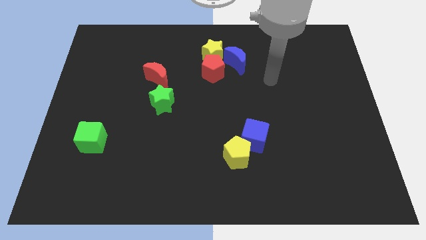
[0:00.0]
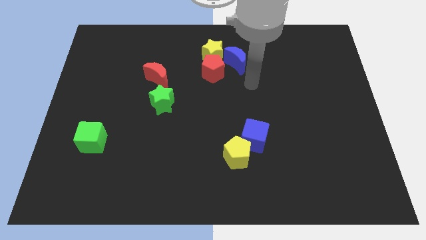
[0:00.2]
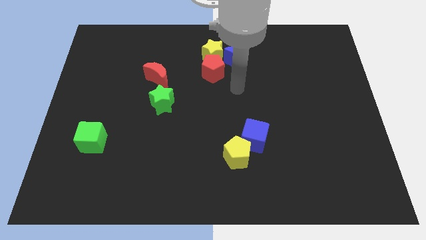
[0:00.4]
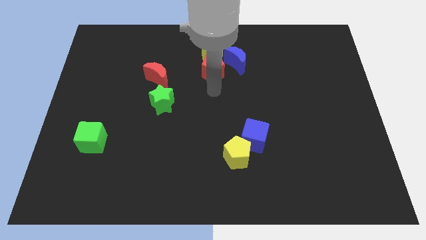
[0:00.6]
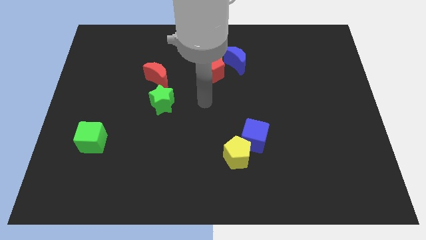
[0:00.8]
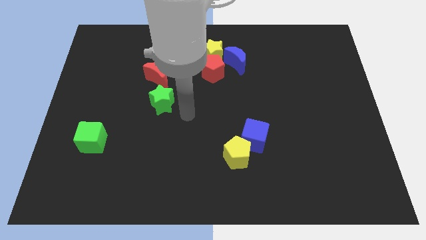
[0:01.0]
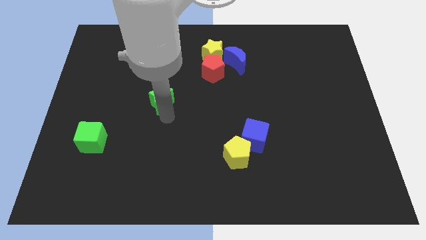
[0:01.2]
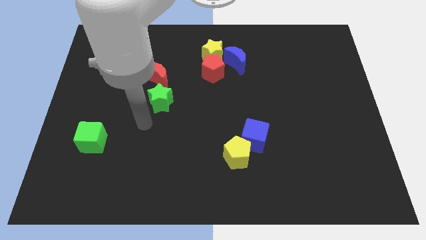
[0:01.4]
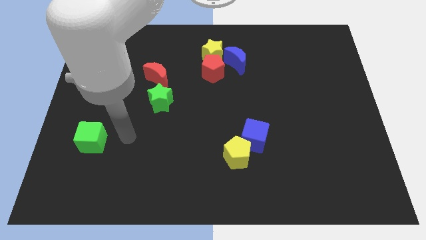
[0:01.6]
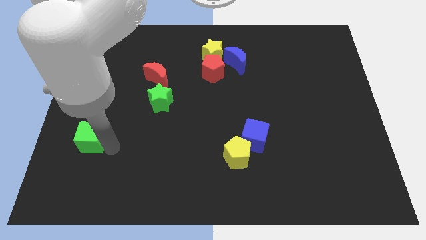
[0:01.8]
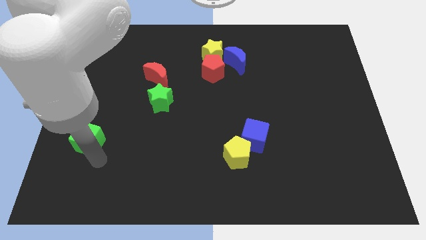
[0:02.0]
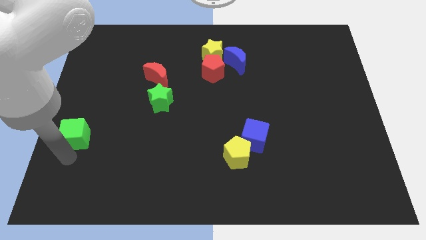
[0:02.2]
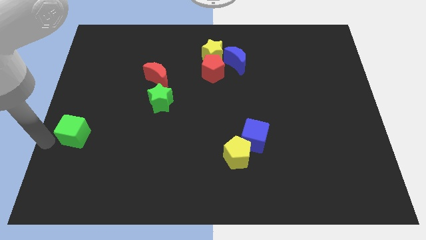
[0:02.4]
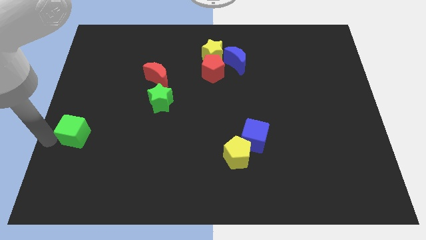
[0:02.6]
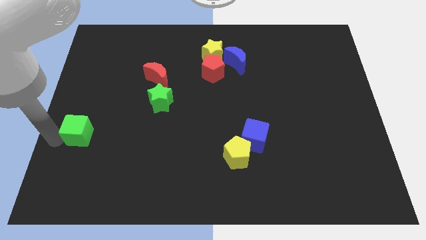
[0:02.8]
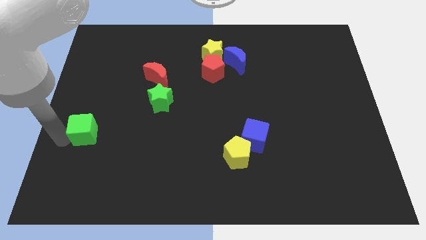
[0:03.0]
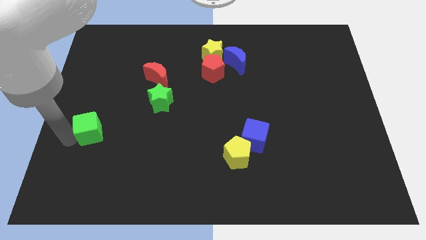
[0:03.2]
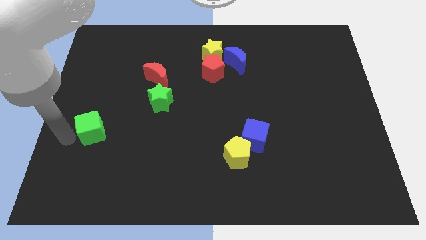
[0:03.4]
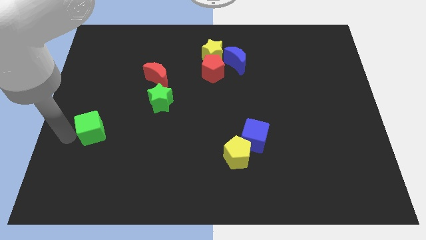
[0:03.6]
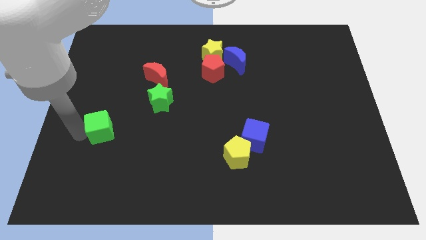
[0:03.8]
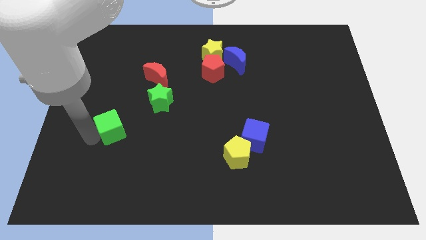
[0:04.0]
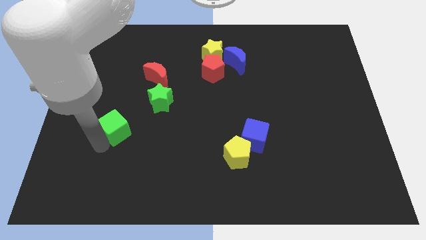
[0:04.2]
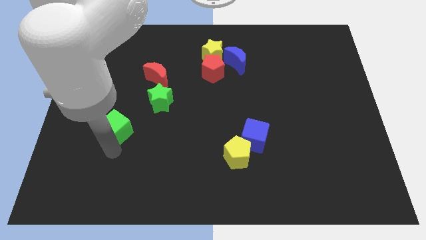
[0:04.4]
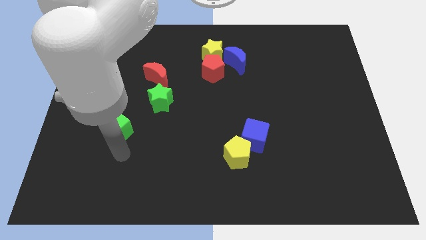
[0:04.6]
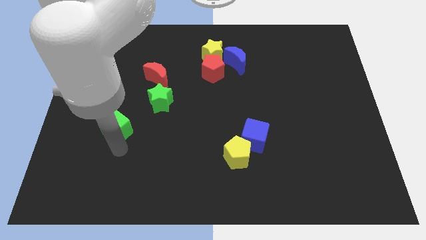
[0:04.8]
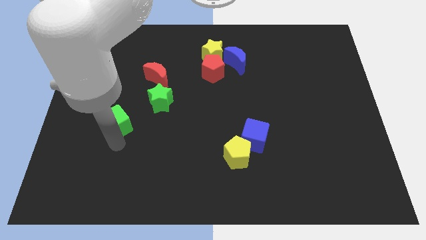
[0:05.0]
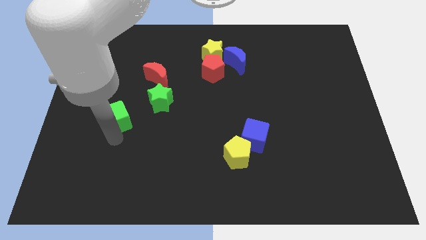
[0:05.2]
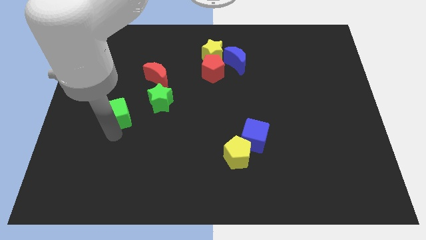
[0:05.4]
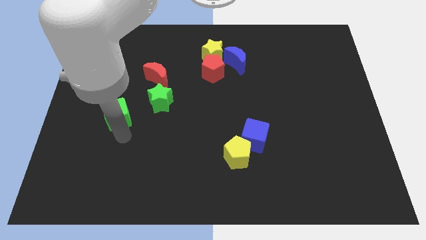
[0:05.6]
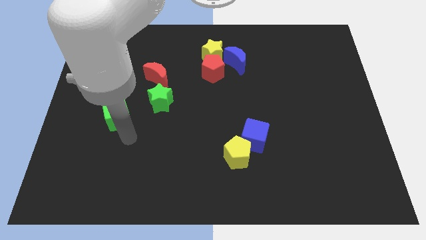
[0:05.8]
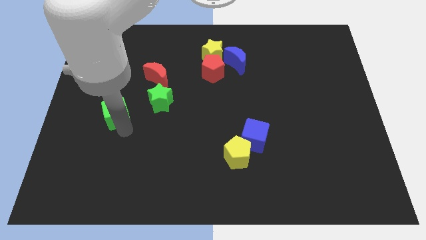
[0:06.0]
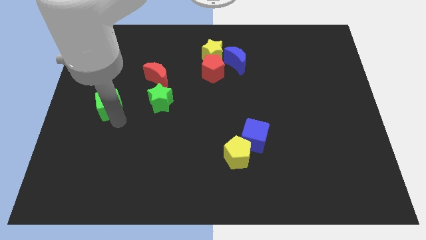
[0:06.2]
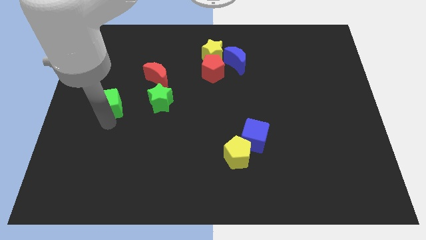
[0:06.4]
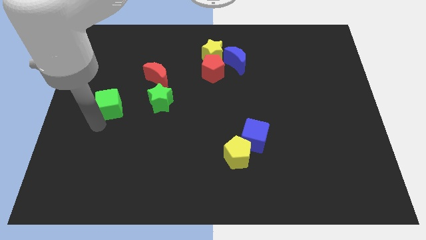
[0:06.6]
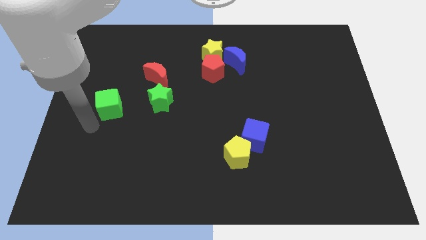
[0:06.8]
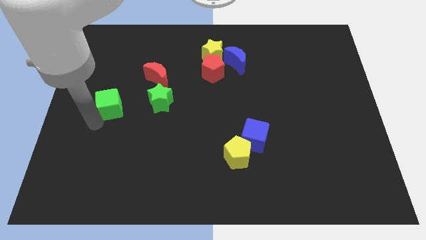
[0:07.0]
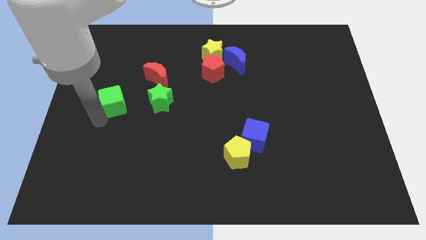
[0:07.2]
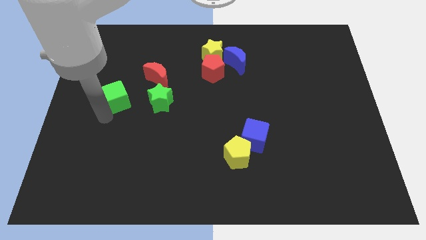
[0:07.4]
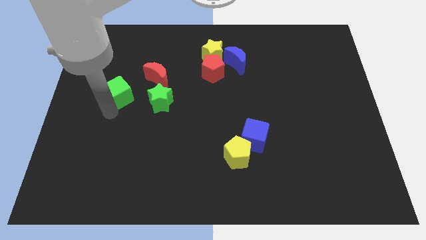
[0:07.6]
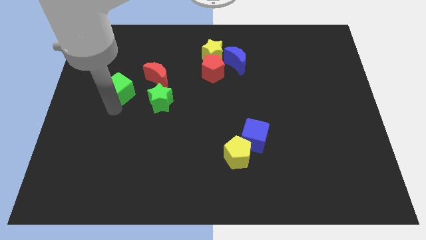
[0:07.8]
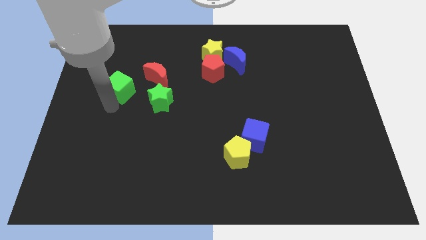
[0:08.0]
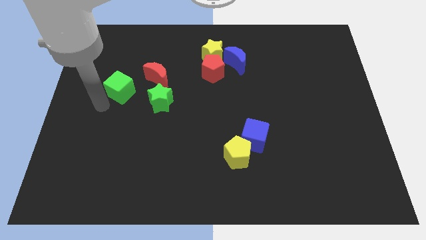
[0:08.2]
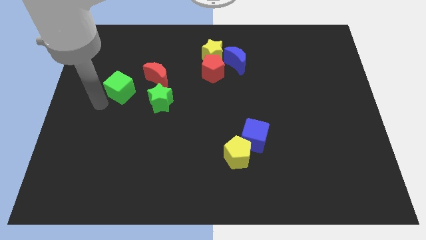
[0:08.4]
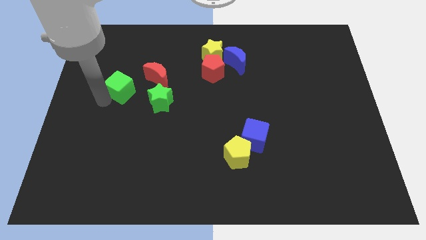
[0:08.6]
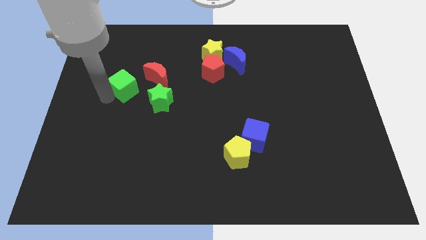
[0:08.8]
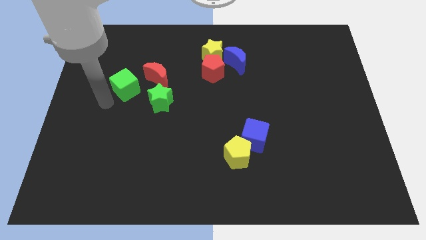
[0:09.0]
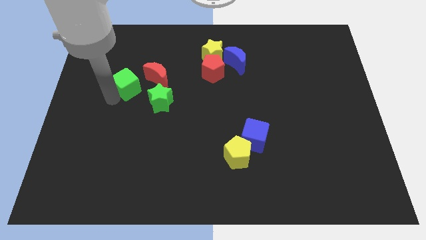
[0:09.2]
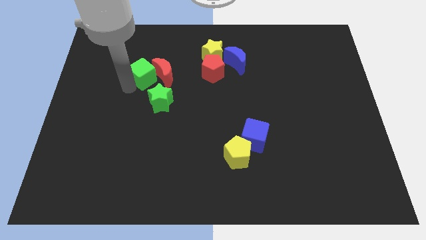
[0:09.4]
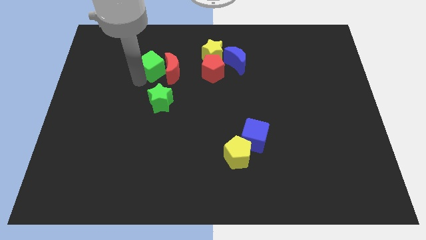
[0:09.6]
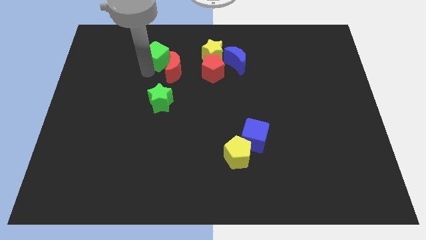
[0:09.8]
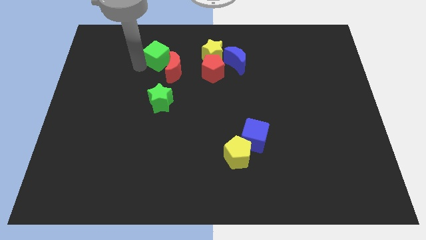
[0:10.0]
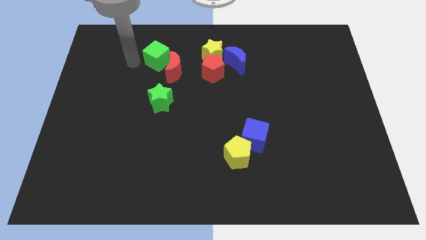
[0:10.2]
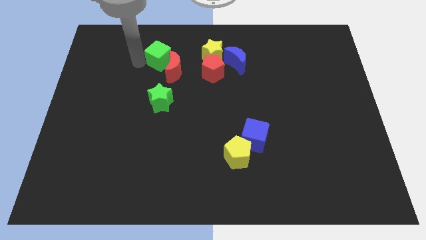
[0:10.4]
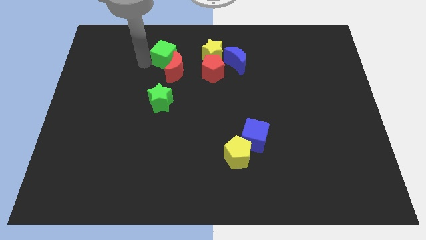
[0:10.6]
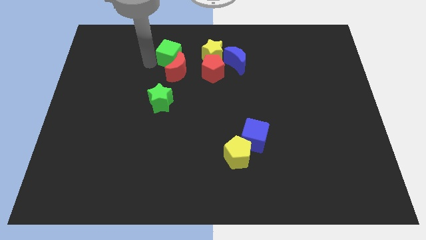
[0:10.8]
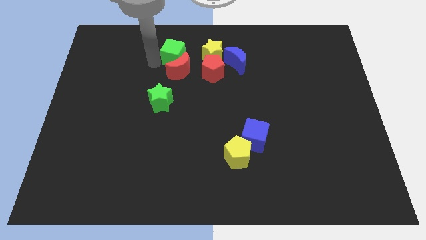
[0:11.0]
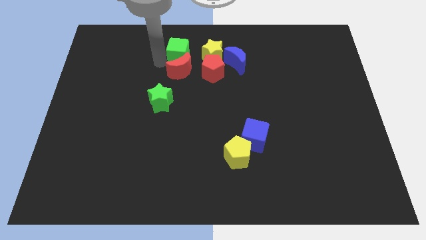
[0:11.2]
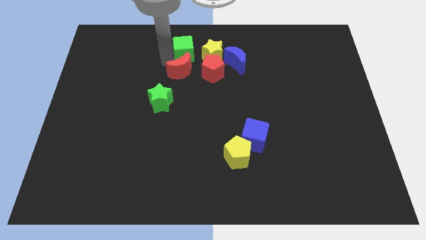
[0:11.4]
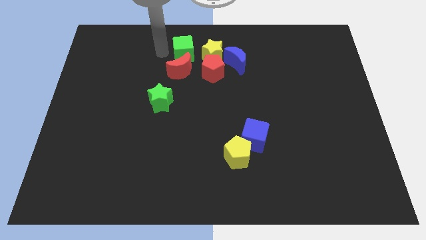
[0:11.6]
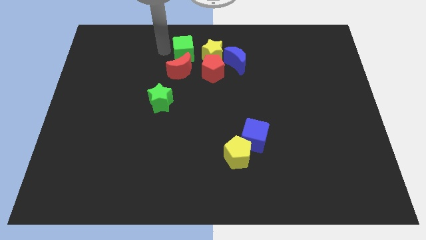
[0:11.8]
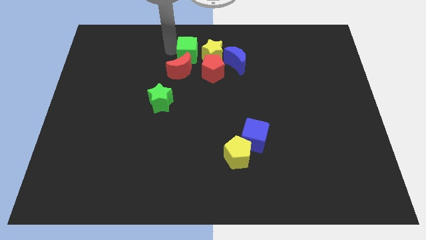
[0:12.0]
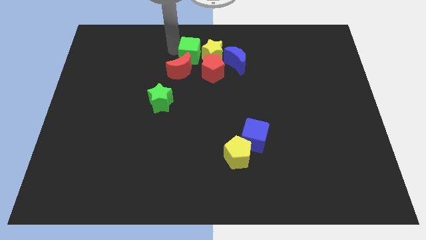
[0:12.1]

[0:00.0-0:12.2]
move the green cube next to the yellow star
